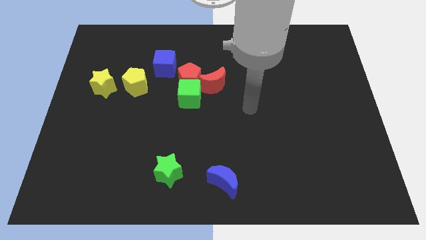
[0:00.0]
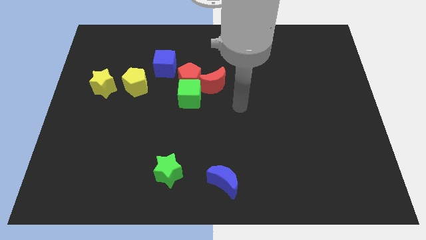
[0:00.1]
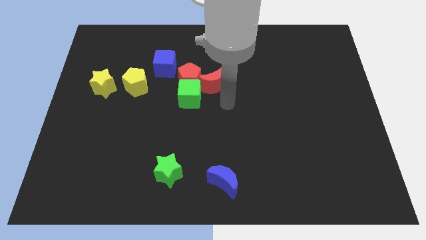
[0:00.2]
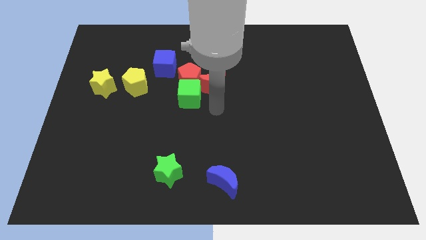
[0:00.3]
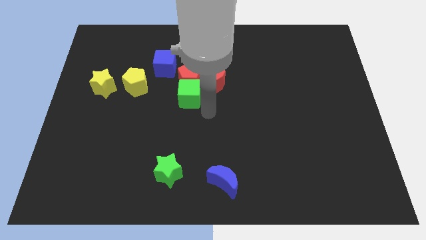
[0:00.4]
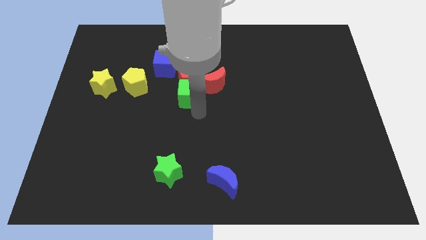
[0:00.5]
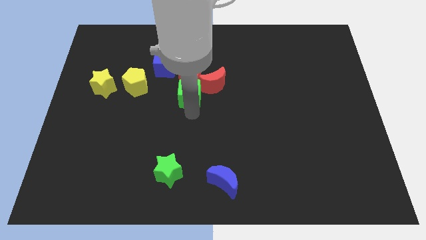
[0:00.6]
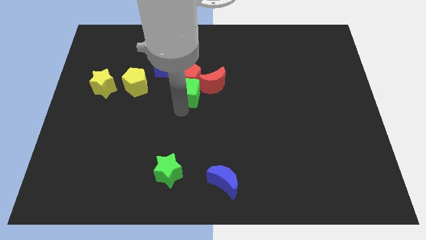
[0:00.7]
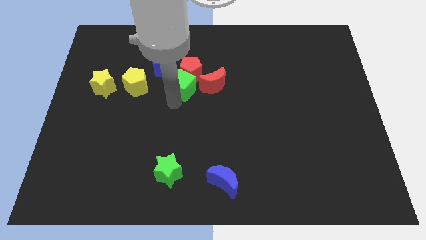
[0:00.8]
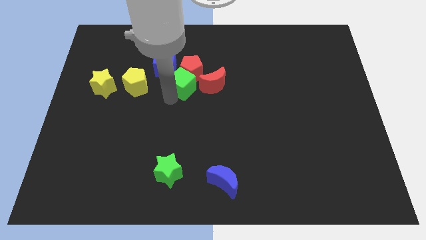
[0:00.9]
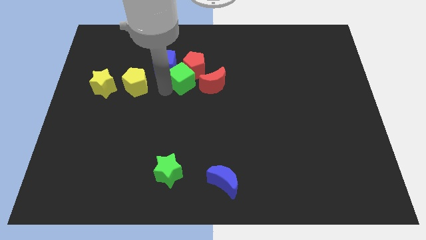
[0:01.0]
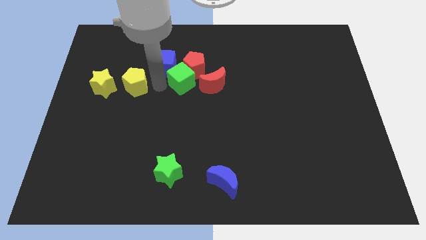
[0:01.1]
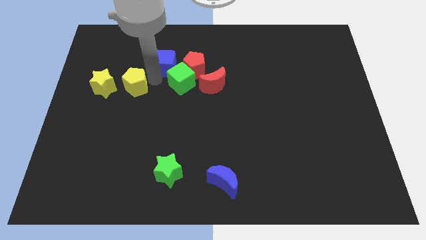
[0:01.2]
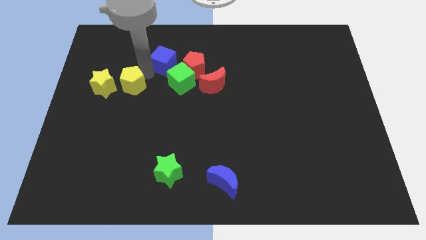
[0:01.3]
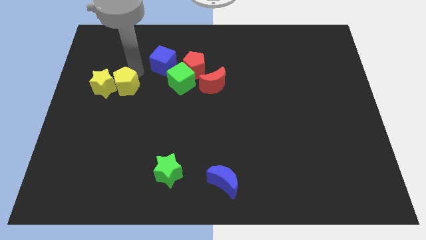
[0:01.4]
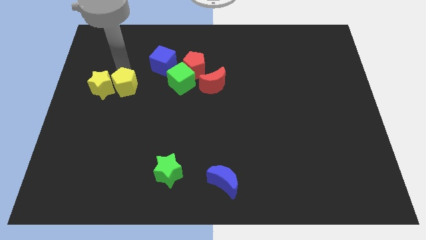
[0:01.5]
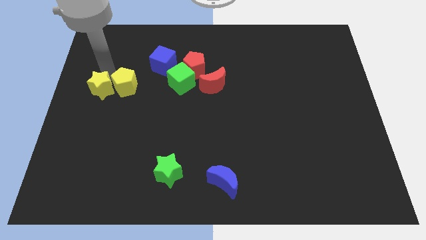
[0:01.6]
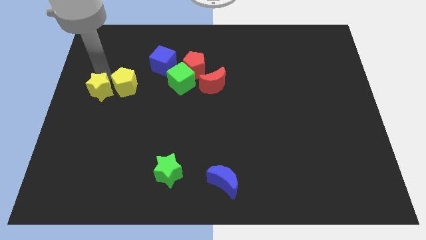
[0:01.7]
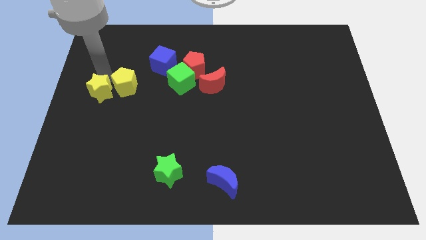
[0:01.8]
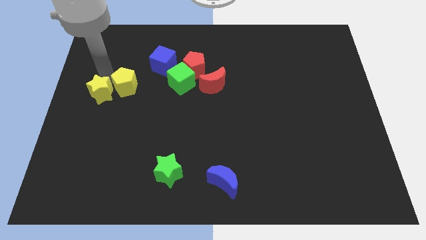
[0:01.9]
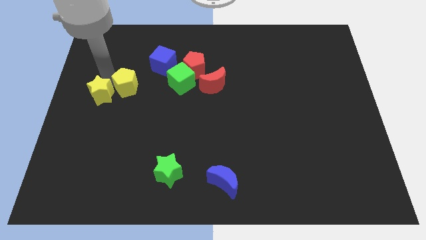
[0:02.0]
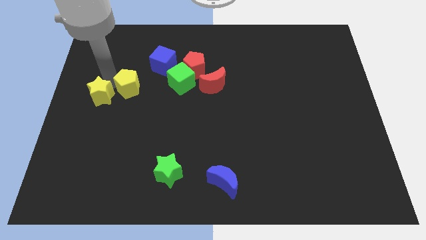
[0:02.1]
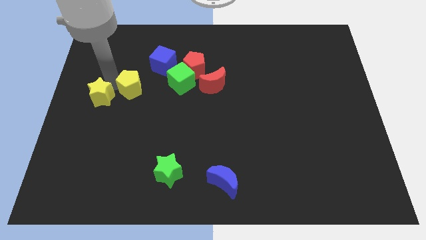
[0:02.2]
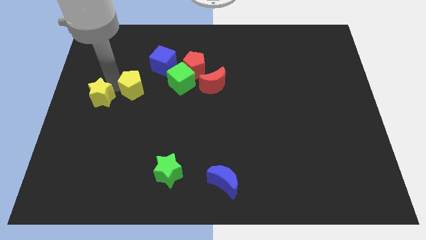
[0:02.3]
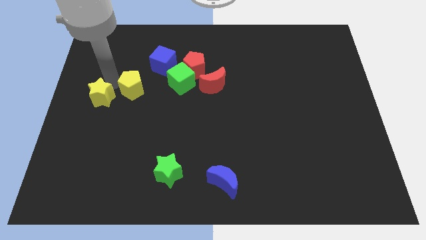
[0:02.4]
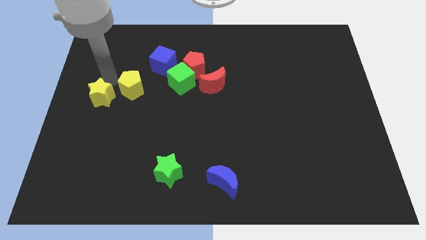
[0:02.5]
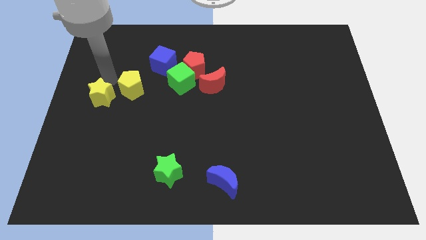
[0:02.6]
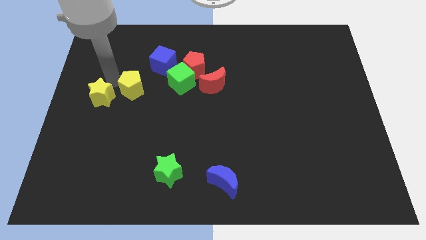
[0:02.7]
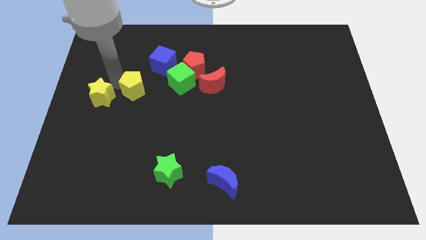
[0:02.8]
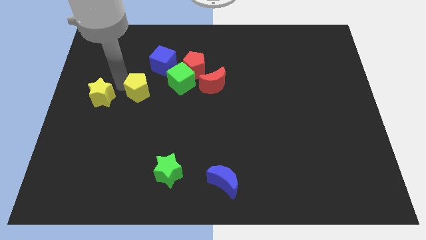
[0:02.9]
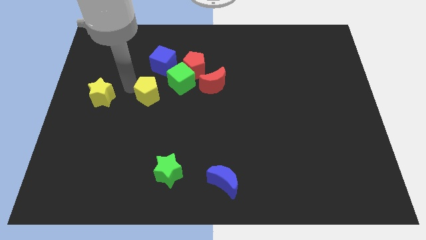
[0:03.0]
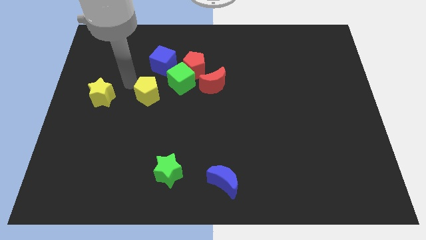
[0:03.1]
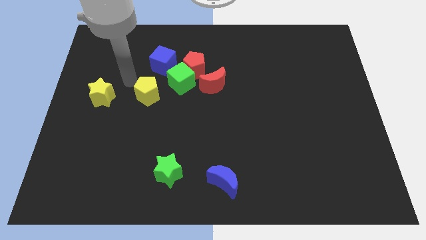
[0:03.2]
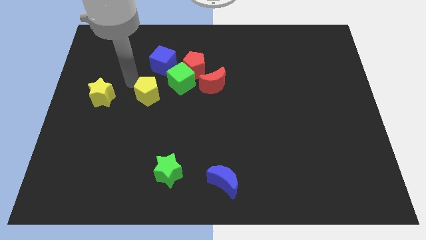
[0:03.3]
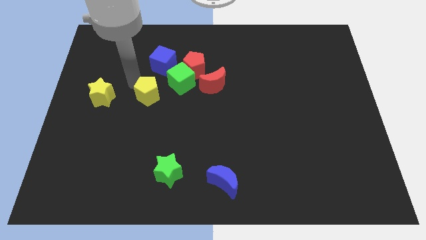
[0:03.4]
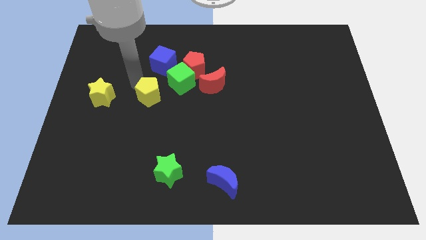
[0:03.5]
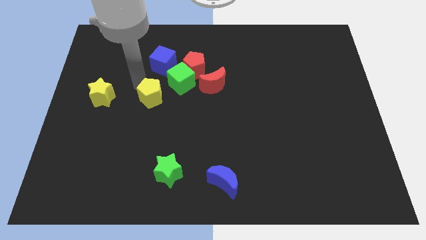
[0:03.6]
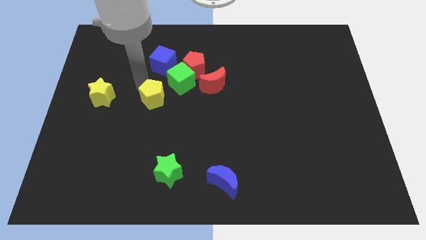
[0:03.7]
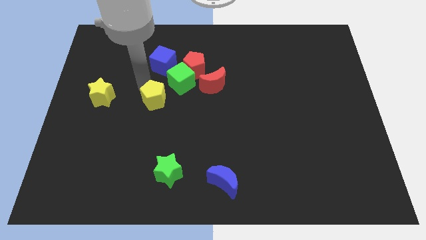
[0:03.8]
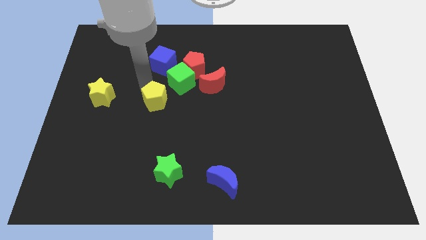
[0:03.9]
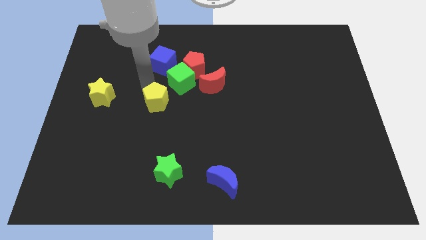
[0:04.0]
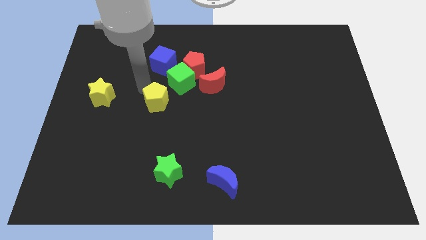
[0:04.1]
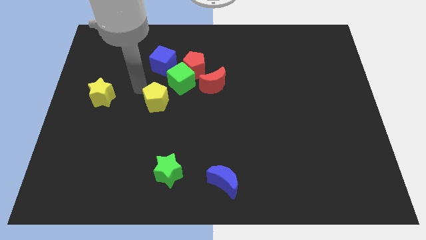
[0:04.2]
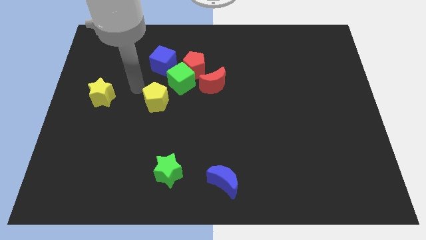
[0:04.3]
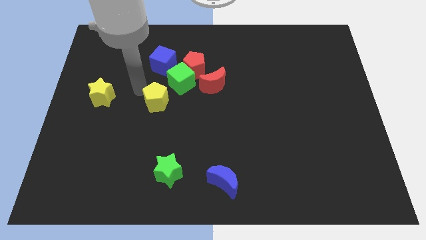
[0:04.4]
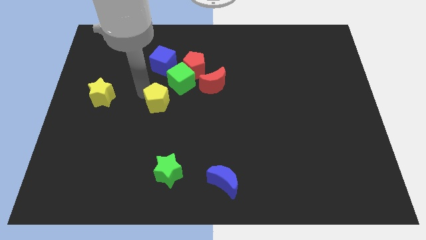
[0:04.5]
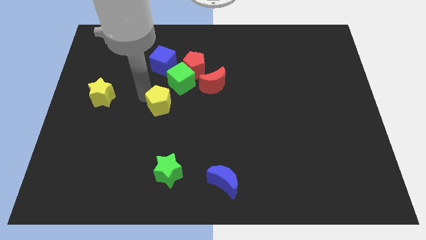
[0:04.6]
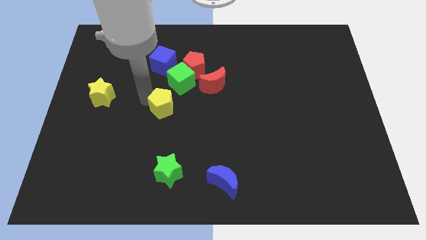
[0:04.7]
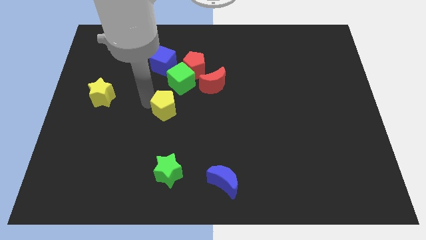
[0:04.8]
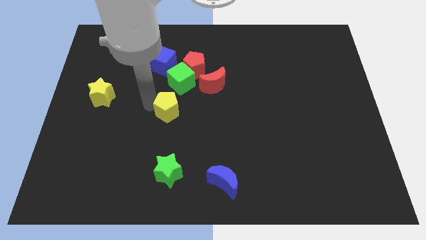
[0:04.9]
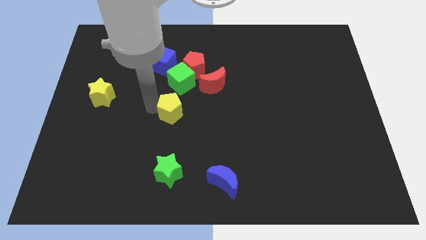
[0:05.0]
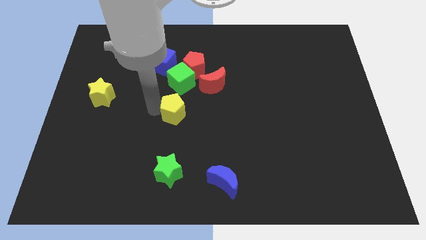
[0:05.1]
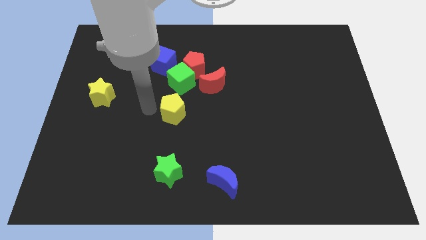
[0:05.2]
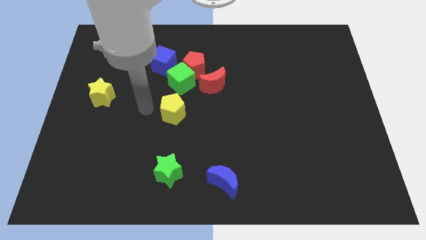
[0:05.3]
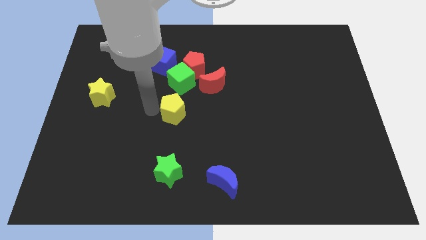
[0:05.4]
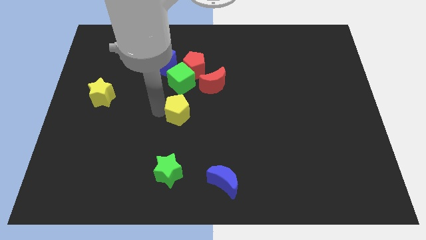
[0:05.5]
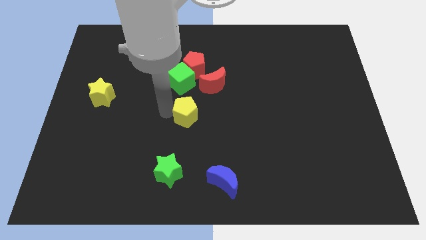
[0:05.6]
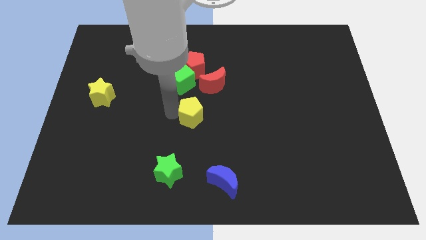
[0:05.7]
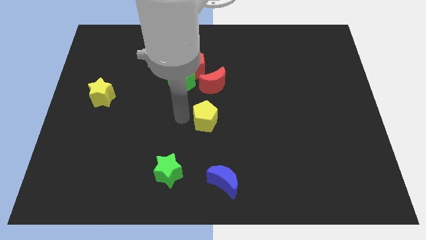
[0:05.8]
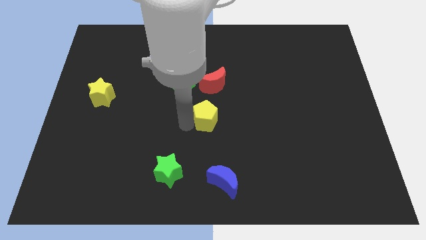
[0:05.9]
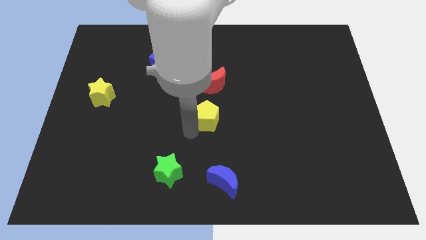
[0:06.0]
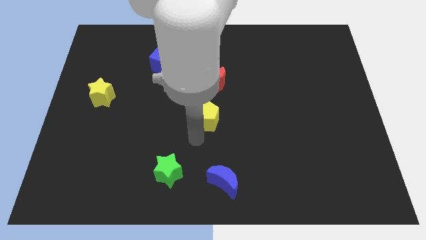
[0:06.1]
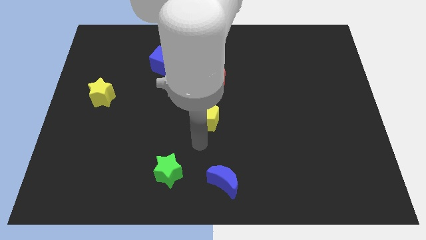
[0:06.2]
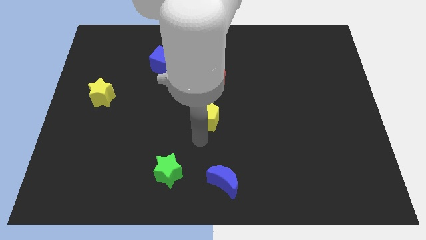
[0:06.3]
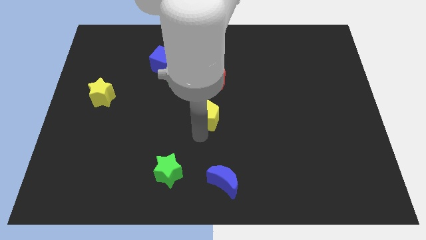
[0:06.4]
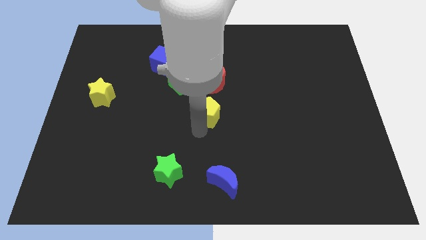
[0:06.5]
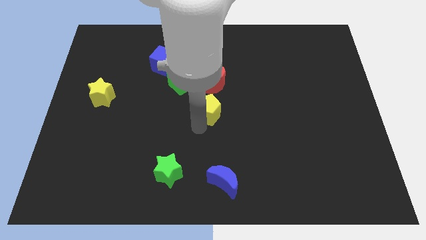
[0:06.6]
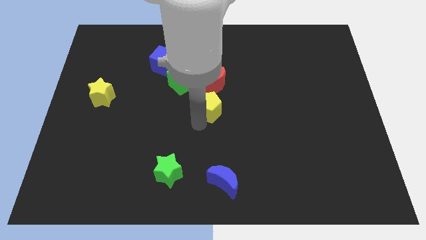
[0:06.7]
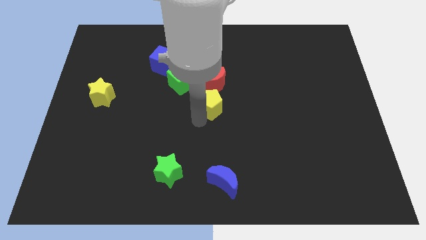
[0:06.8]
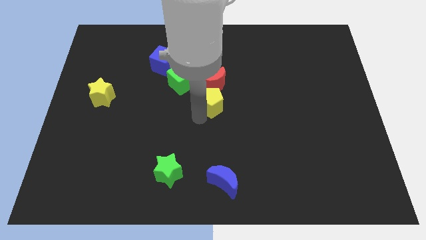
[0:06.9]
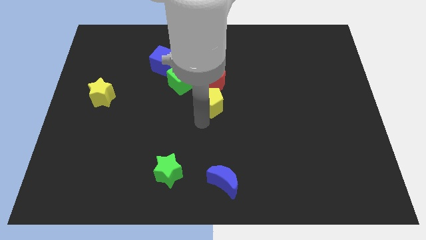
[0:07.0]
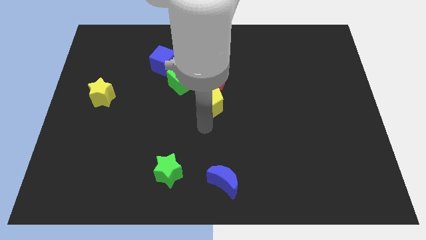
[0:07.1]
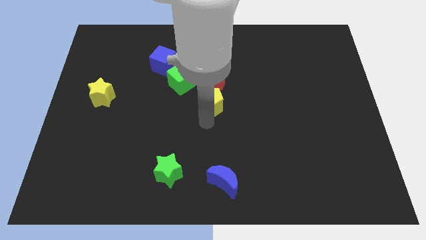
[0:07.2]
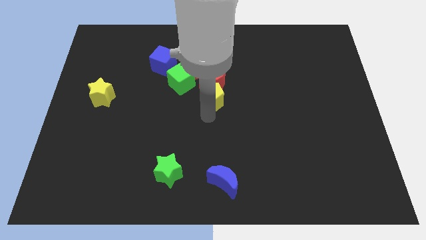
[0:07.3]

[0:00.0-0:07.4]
slide the yellow pentagon to the bottom right side of the red pentagon
